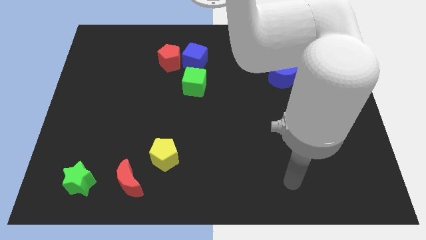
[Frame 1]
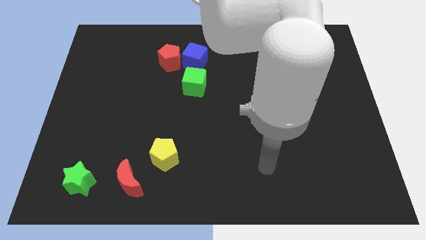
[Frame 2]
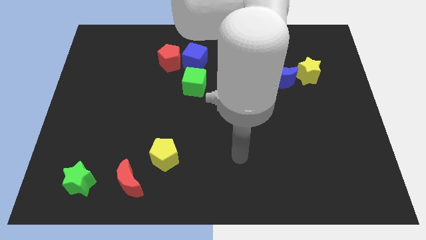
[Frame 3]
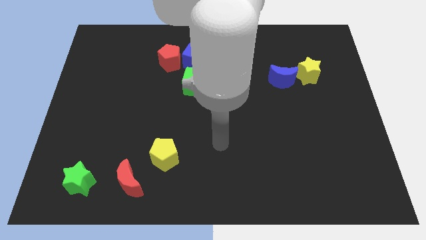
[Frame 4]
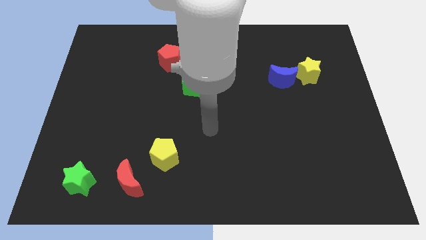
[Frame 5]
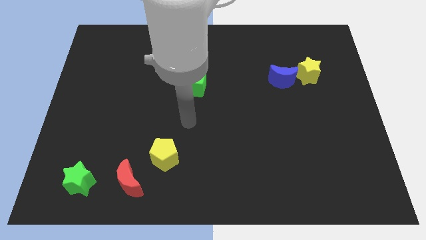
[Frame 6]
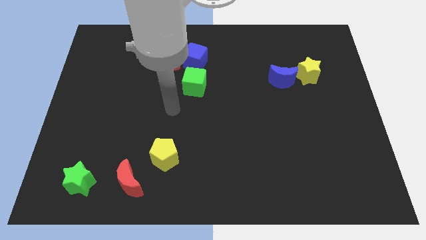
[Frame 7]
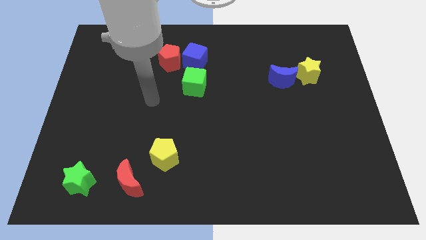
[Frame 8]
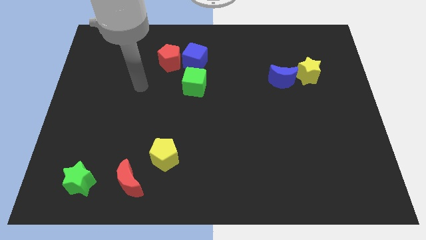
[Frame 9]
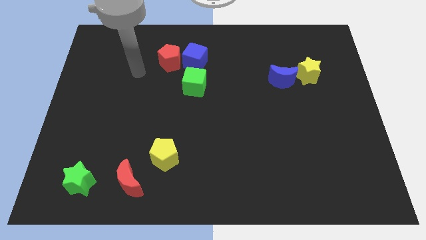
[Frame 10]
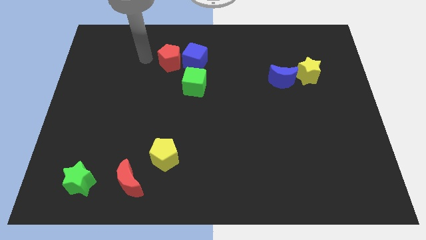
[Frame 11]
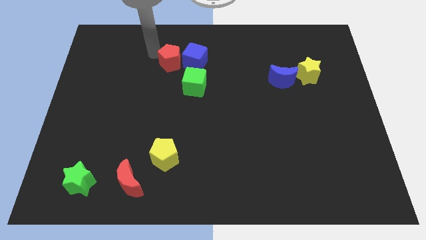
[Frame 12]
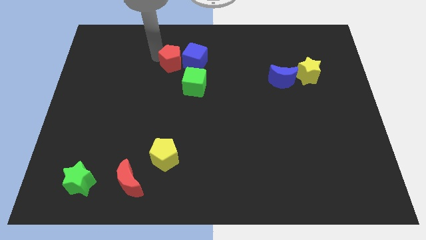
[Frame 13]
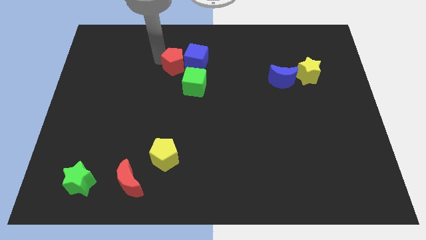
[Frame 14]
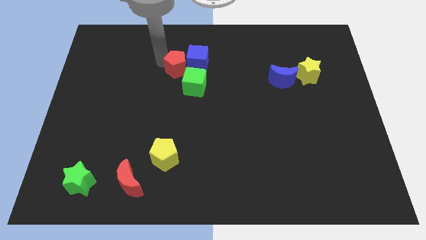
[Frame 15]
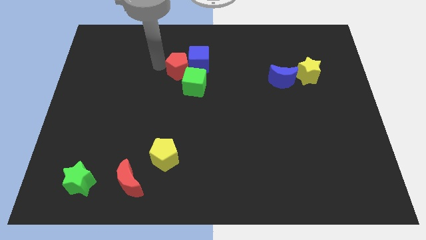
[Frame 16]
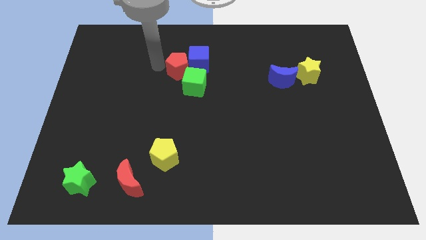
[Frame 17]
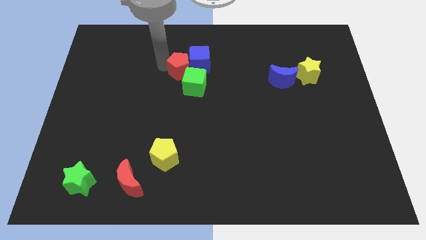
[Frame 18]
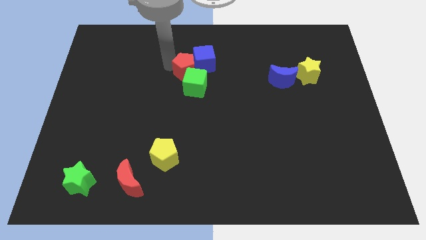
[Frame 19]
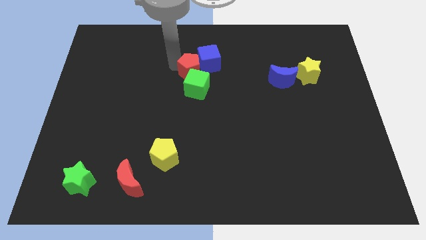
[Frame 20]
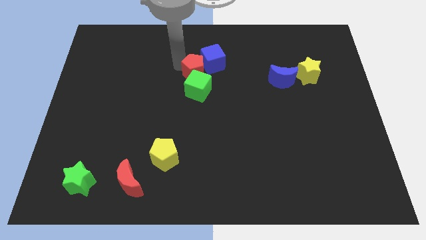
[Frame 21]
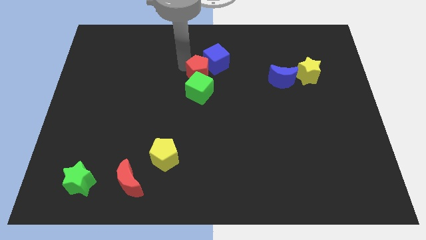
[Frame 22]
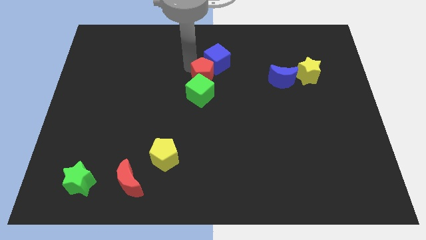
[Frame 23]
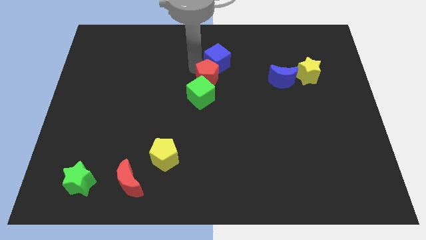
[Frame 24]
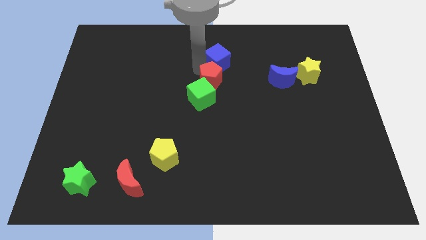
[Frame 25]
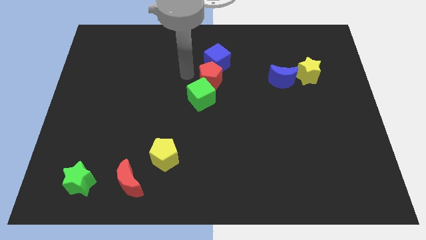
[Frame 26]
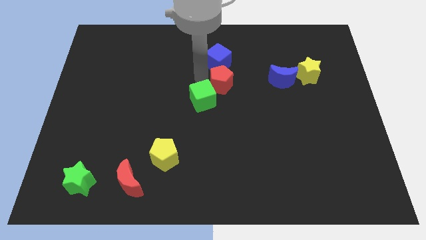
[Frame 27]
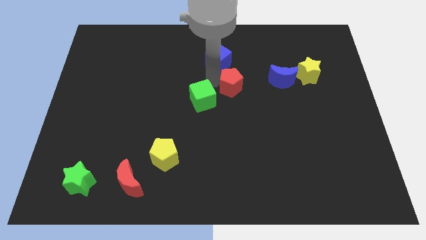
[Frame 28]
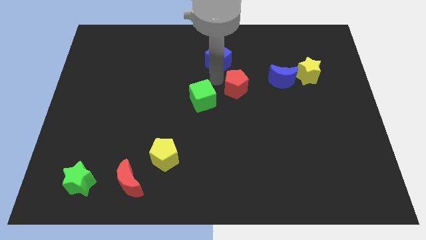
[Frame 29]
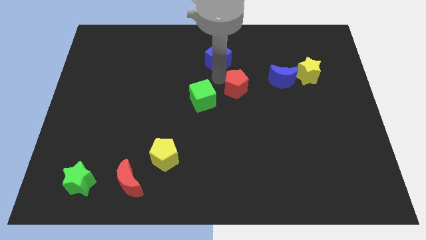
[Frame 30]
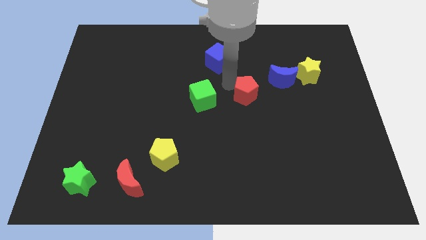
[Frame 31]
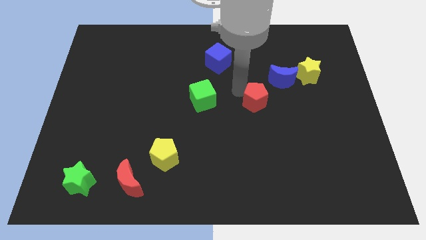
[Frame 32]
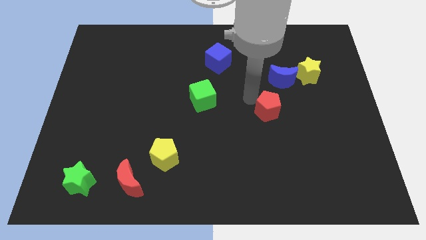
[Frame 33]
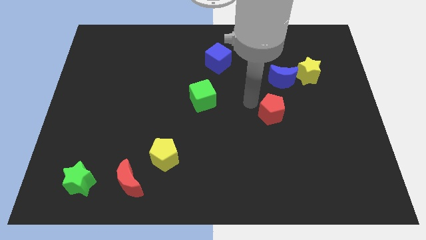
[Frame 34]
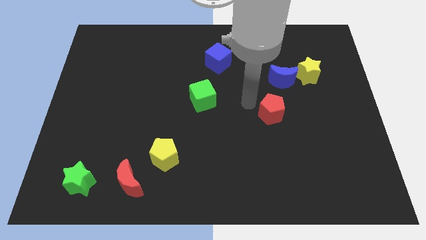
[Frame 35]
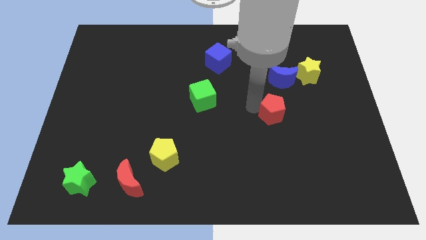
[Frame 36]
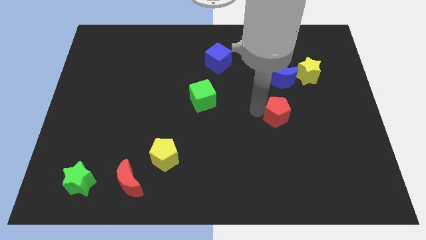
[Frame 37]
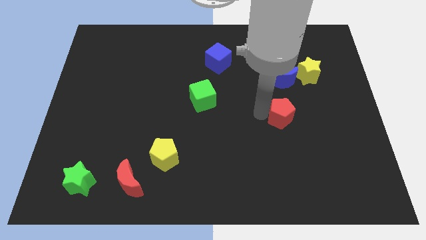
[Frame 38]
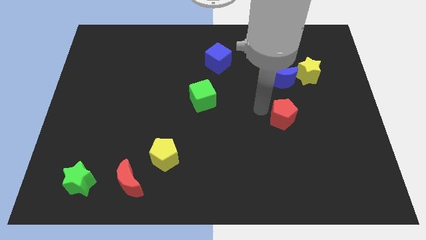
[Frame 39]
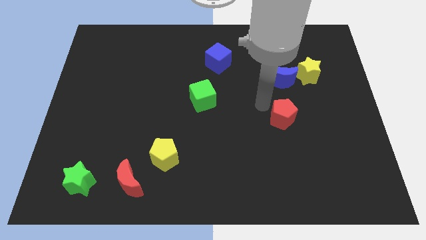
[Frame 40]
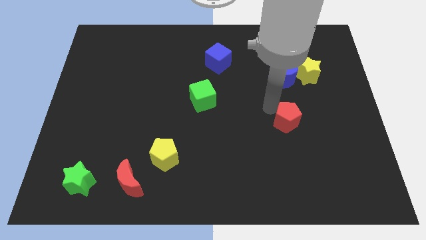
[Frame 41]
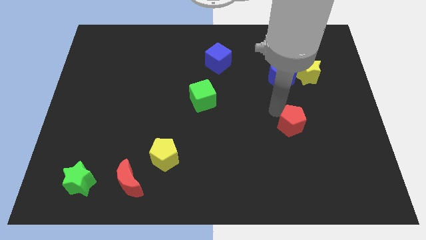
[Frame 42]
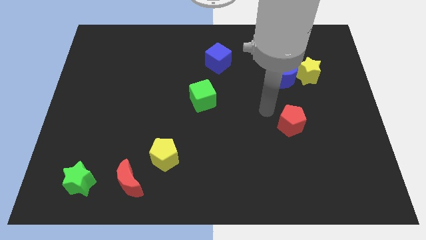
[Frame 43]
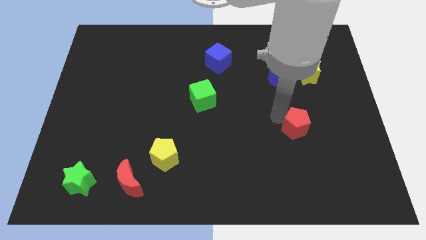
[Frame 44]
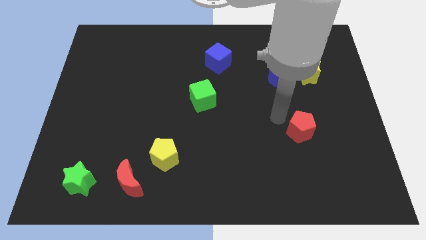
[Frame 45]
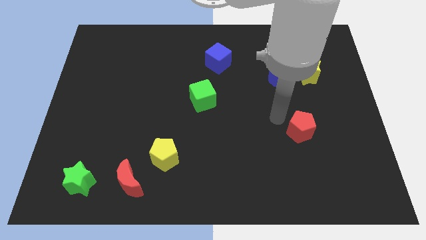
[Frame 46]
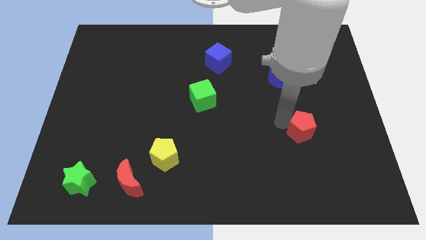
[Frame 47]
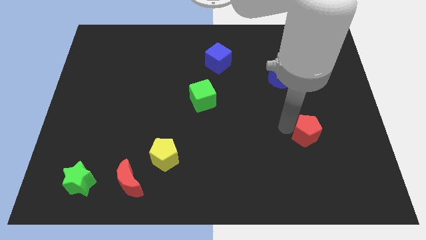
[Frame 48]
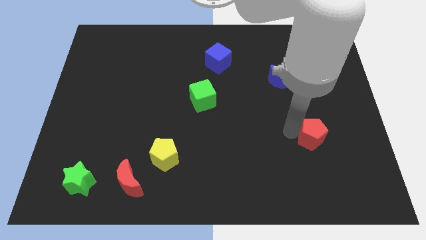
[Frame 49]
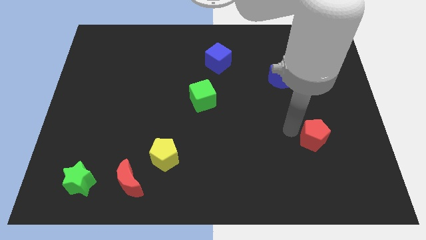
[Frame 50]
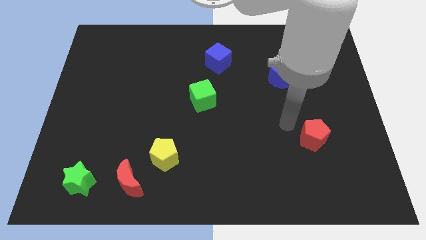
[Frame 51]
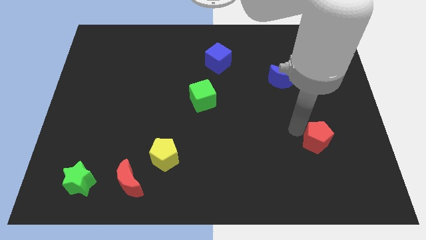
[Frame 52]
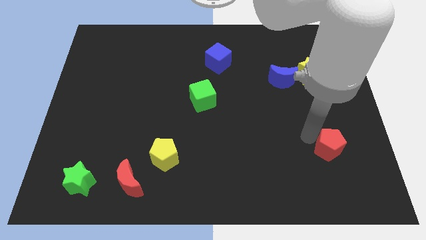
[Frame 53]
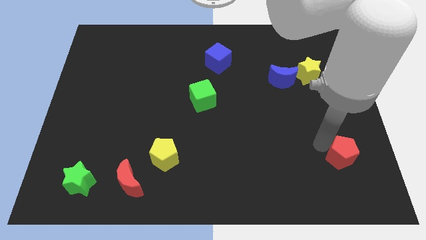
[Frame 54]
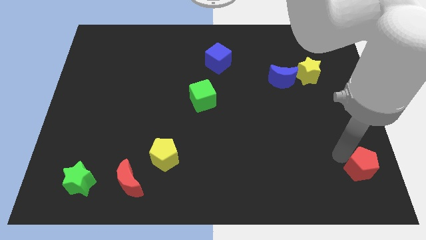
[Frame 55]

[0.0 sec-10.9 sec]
put the red pentagon to the lower right corner

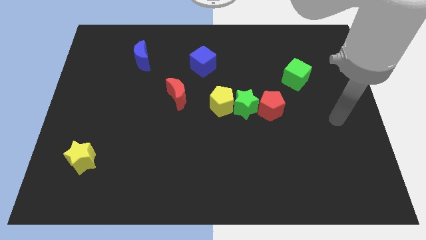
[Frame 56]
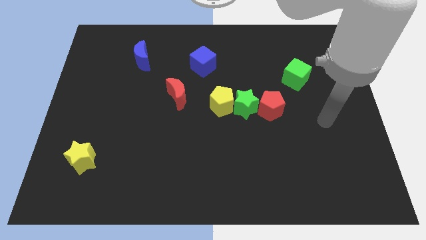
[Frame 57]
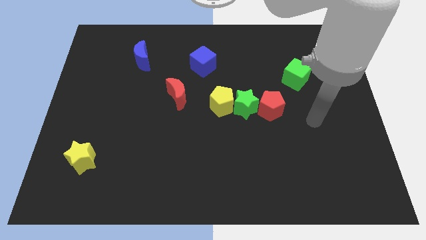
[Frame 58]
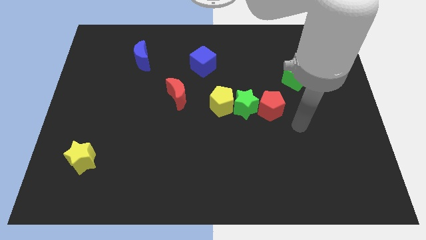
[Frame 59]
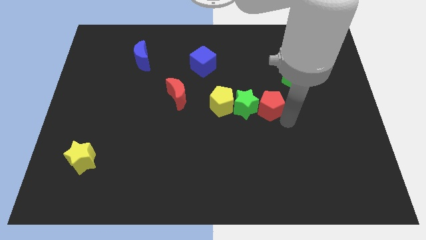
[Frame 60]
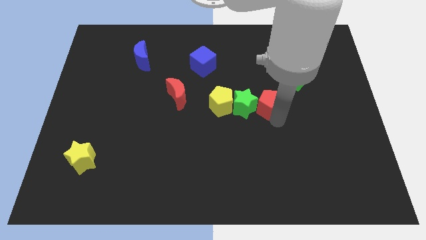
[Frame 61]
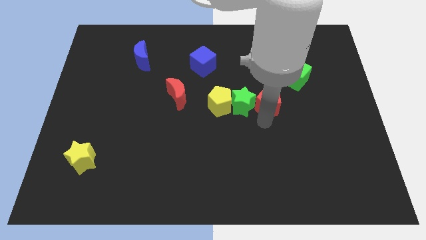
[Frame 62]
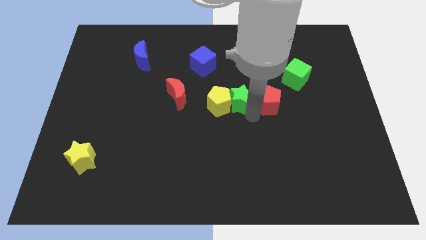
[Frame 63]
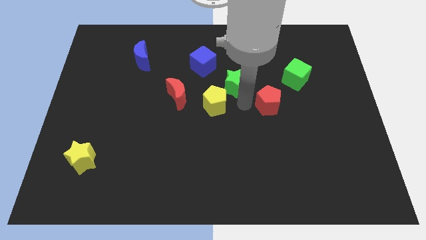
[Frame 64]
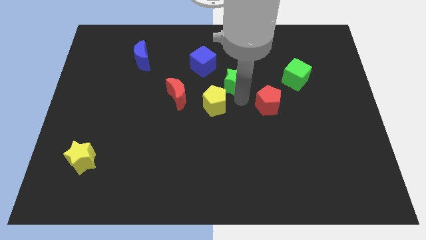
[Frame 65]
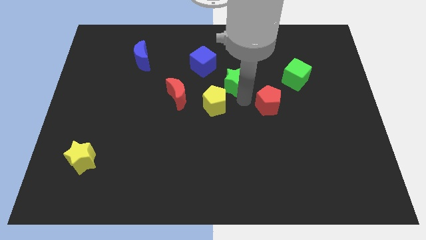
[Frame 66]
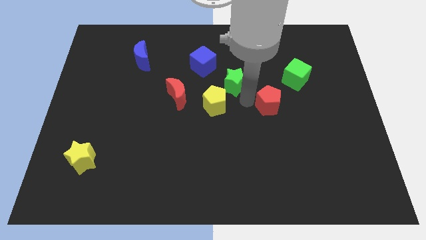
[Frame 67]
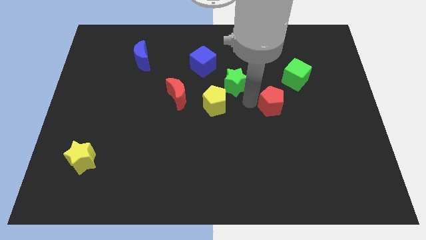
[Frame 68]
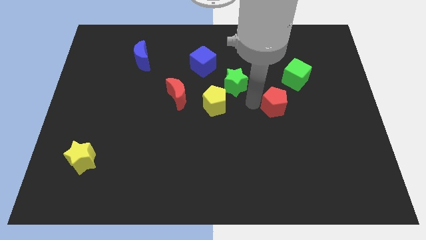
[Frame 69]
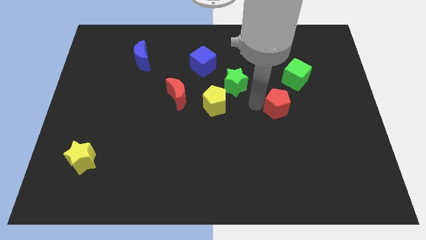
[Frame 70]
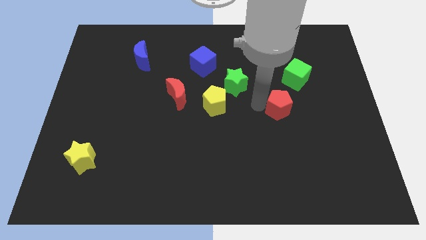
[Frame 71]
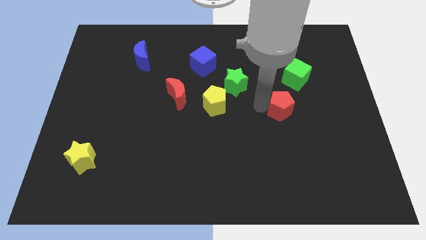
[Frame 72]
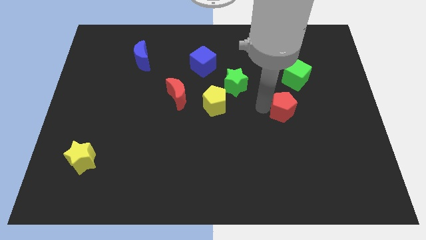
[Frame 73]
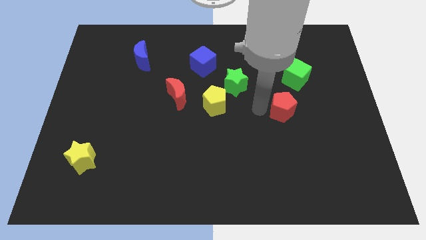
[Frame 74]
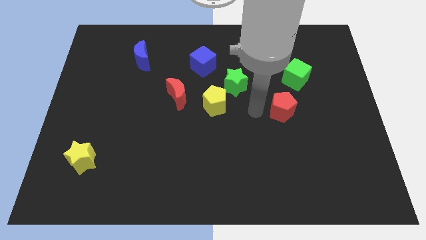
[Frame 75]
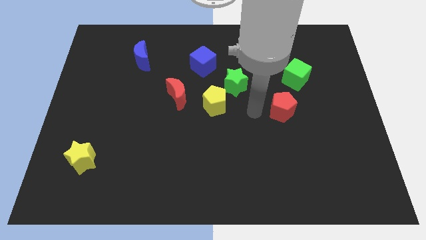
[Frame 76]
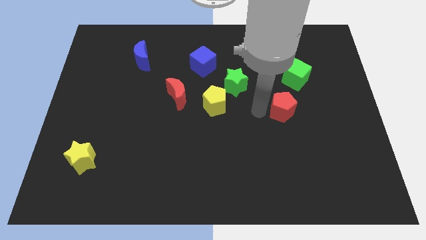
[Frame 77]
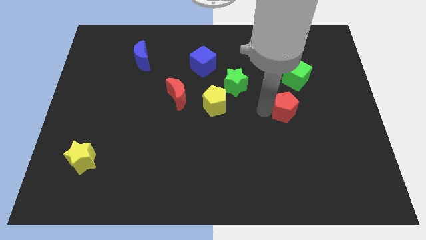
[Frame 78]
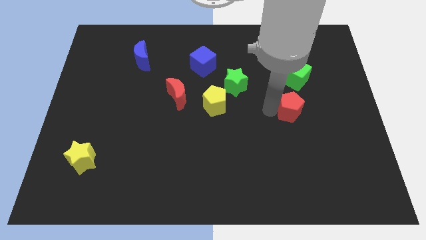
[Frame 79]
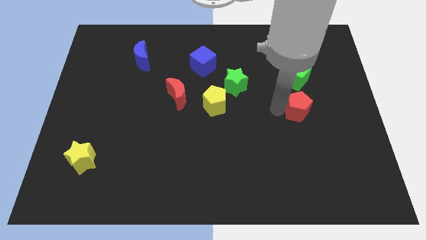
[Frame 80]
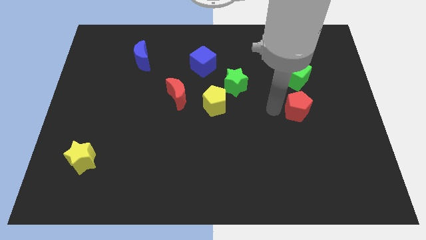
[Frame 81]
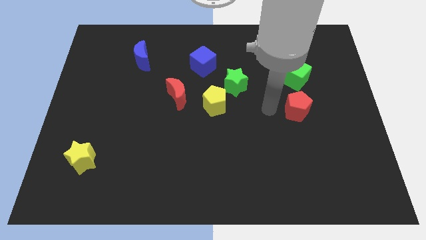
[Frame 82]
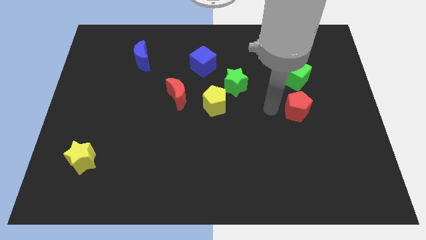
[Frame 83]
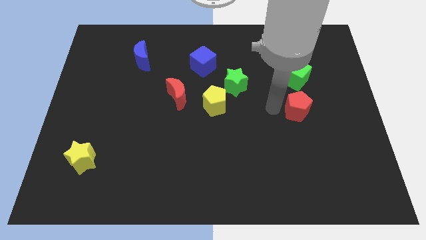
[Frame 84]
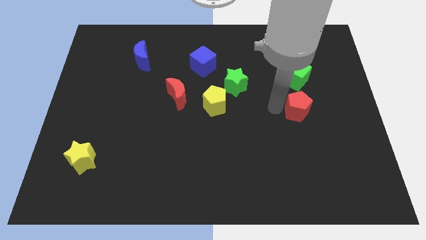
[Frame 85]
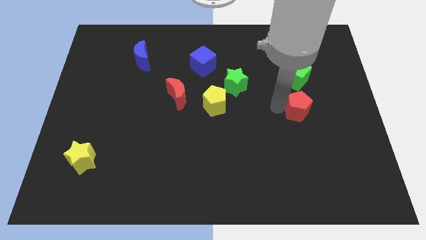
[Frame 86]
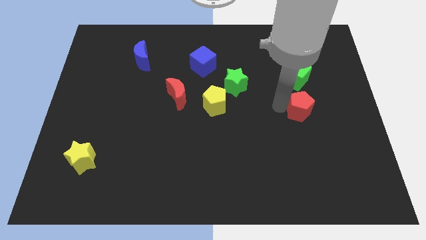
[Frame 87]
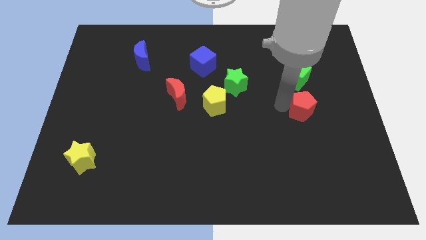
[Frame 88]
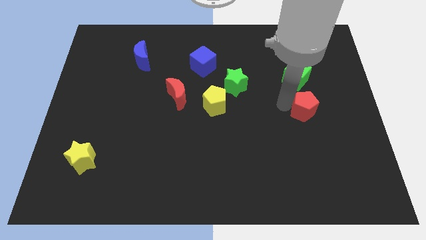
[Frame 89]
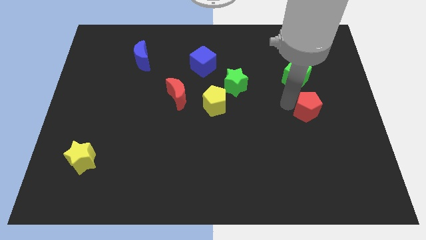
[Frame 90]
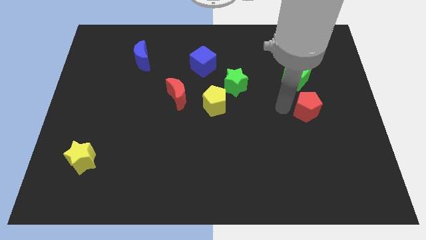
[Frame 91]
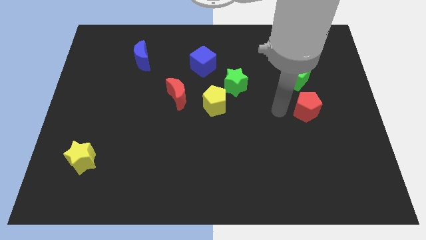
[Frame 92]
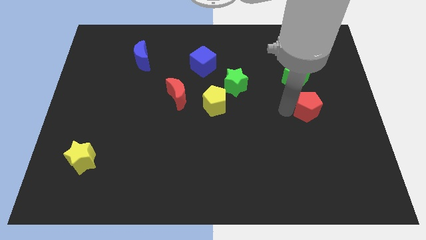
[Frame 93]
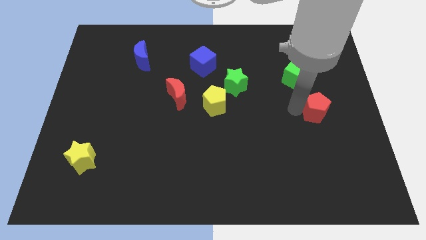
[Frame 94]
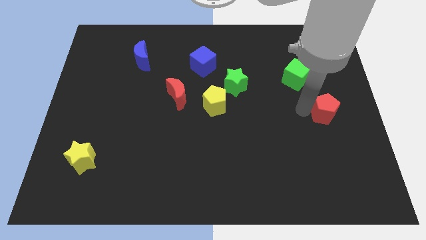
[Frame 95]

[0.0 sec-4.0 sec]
move the red pentagon to the center right
